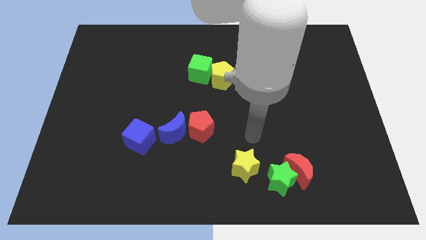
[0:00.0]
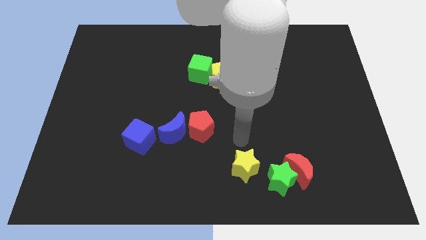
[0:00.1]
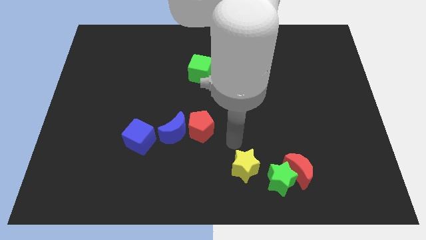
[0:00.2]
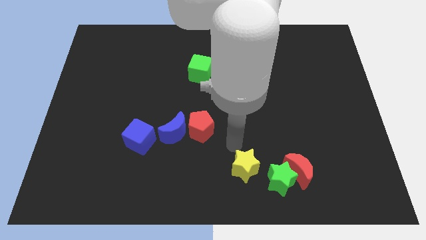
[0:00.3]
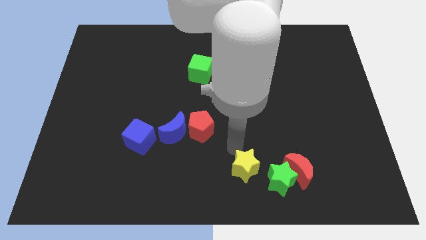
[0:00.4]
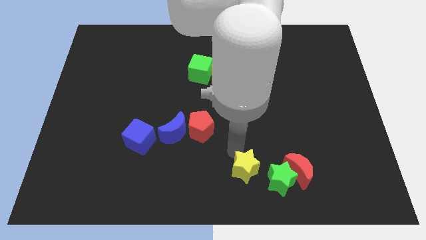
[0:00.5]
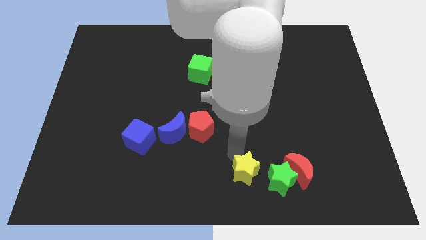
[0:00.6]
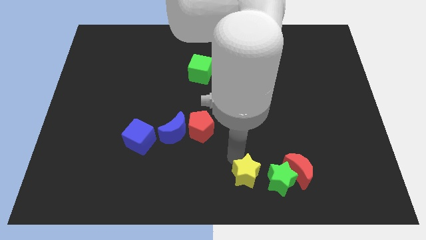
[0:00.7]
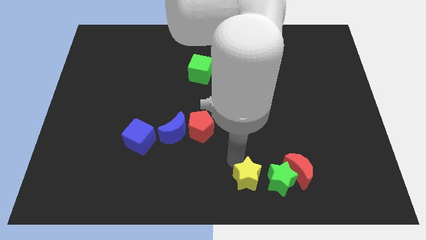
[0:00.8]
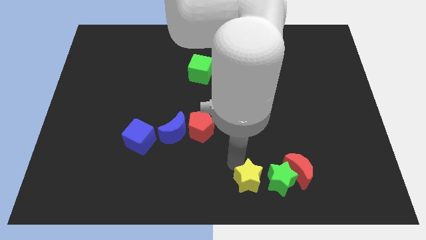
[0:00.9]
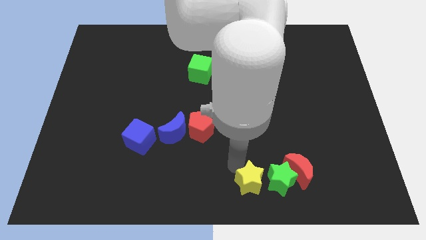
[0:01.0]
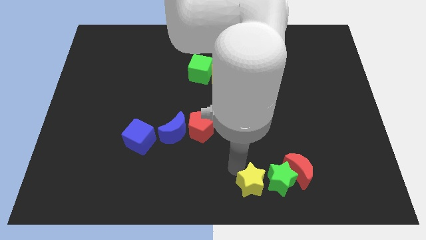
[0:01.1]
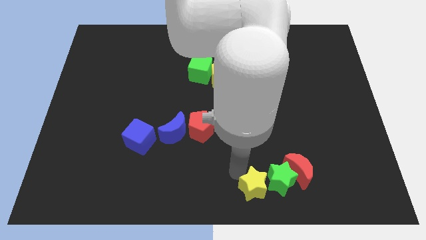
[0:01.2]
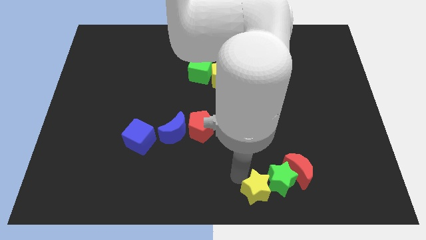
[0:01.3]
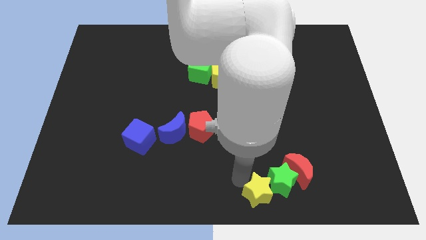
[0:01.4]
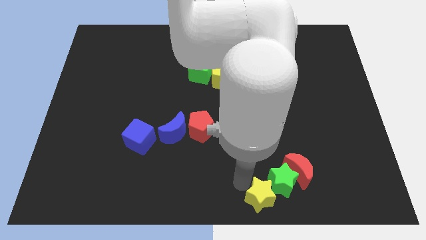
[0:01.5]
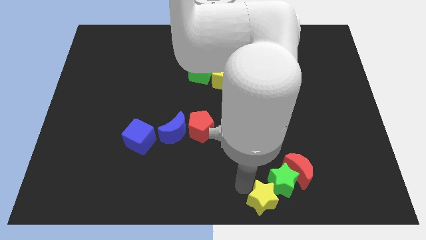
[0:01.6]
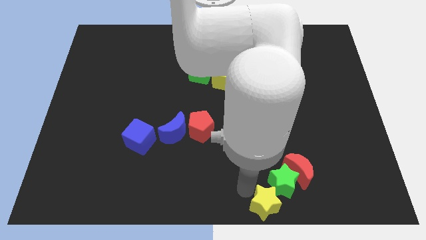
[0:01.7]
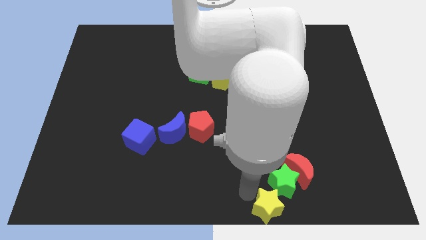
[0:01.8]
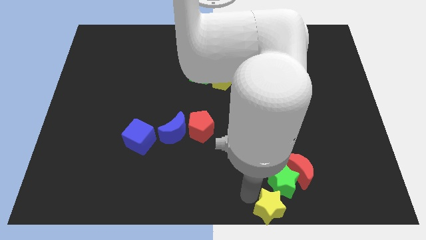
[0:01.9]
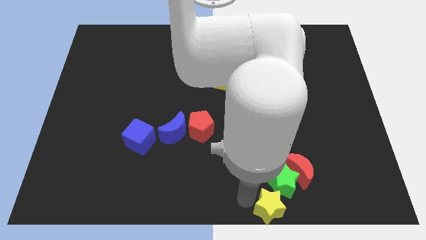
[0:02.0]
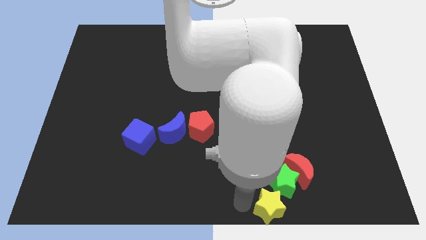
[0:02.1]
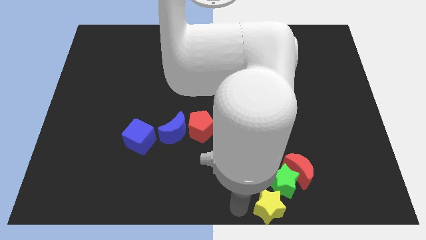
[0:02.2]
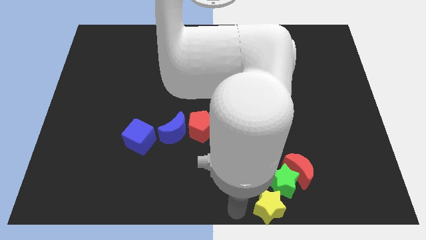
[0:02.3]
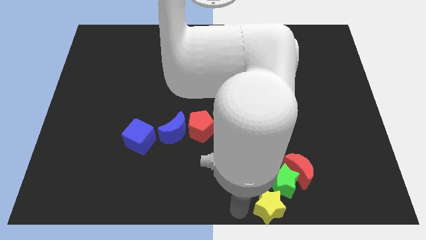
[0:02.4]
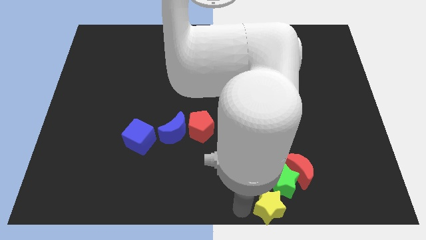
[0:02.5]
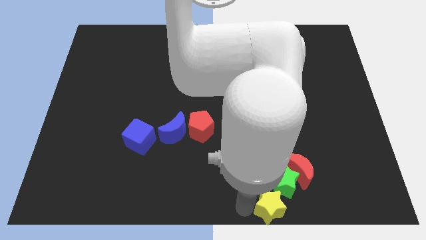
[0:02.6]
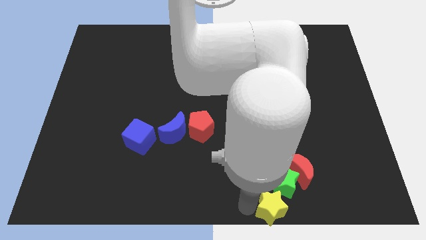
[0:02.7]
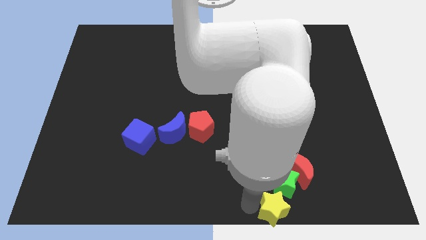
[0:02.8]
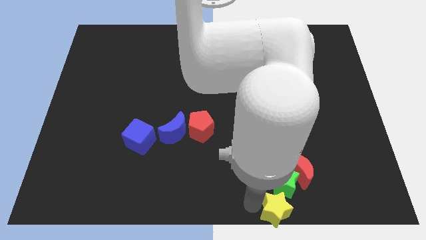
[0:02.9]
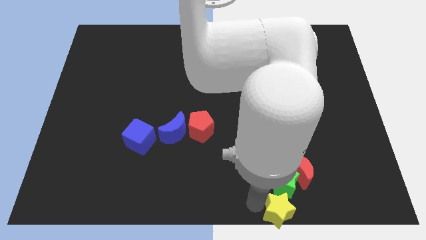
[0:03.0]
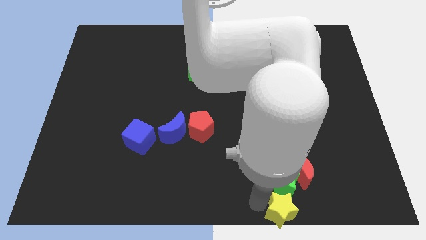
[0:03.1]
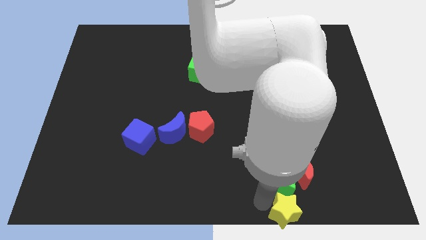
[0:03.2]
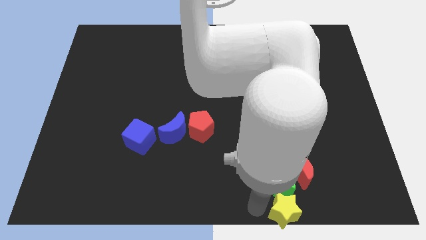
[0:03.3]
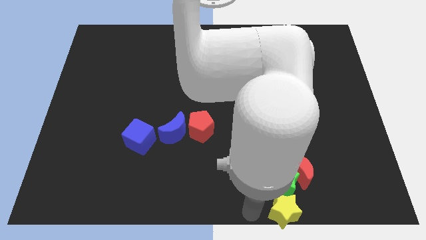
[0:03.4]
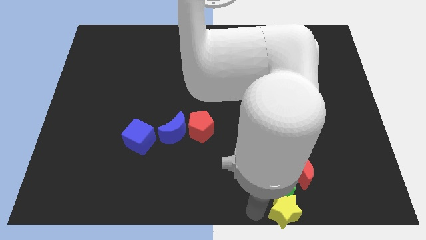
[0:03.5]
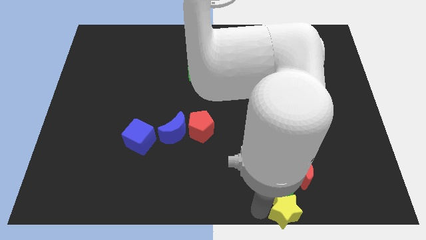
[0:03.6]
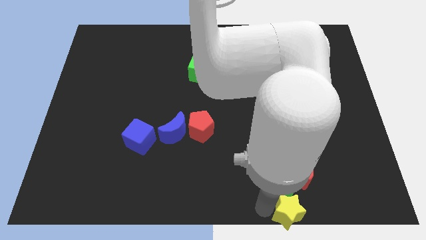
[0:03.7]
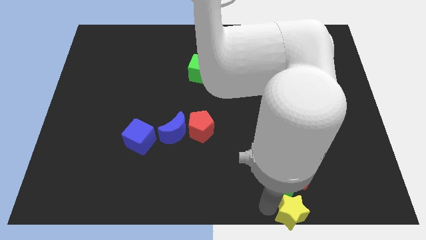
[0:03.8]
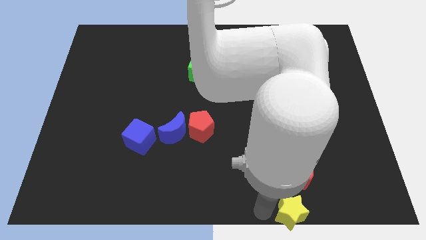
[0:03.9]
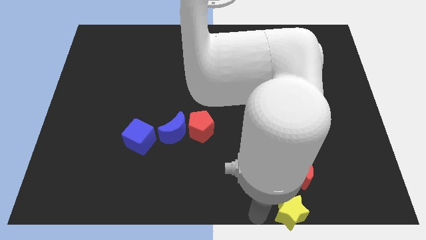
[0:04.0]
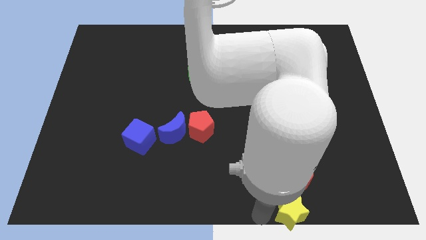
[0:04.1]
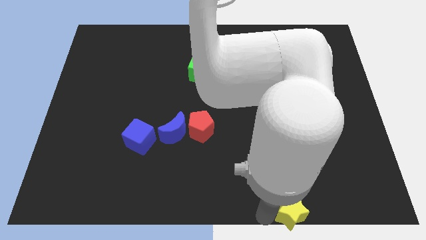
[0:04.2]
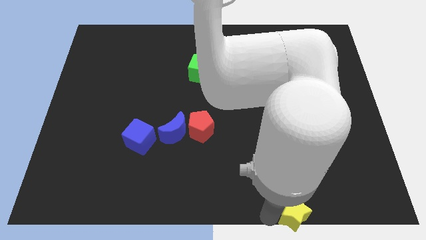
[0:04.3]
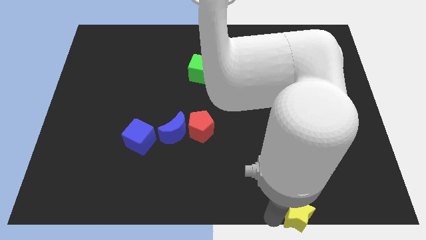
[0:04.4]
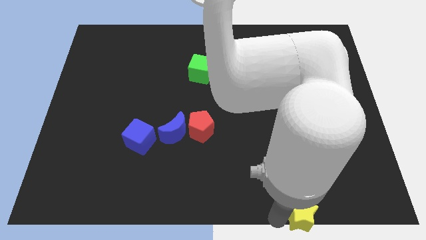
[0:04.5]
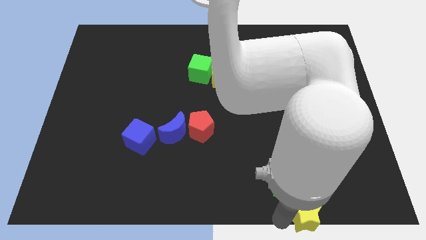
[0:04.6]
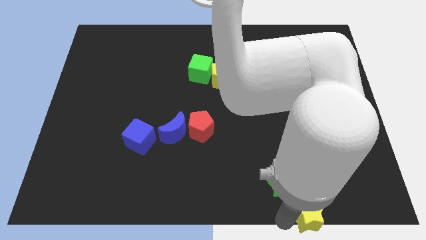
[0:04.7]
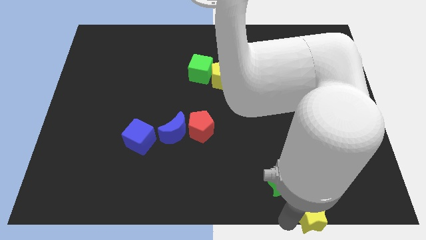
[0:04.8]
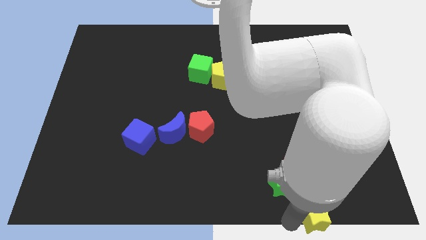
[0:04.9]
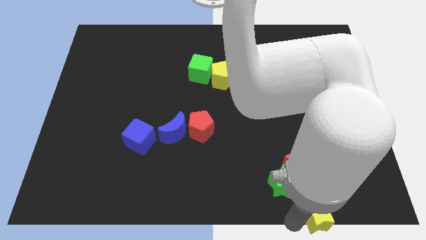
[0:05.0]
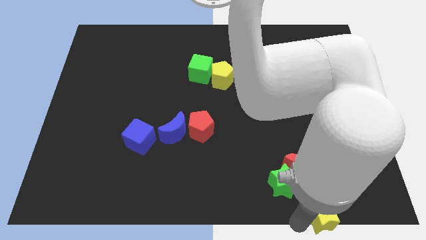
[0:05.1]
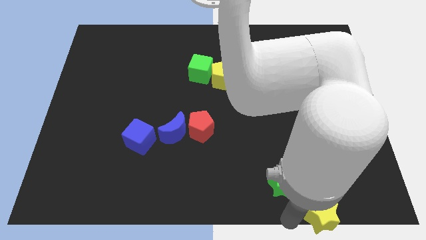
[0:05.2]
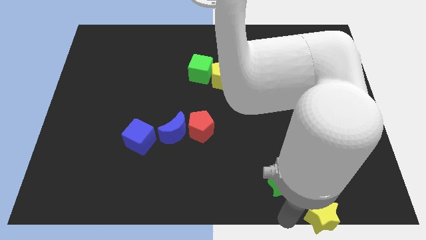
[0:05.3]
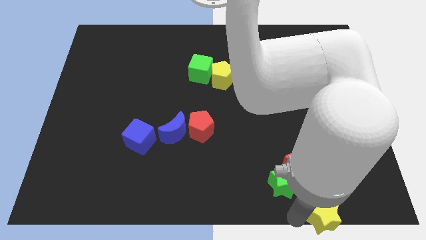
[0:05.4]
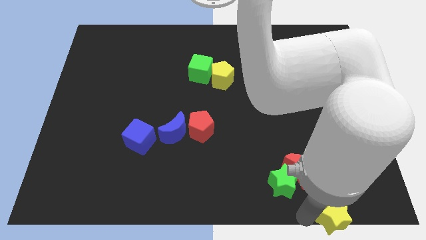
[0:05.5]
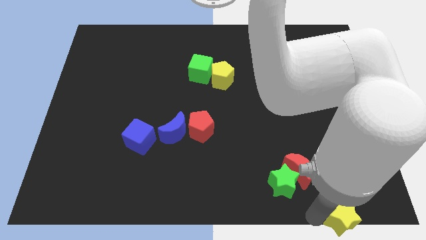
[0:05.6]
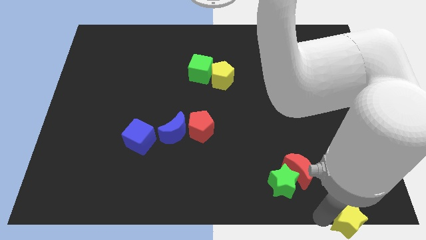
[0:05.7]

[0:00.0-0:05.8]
put the yellow star to the lower right corner
